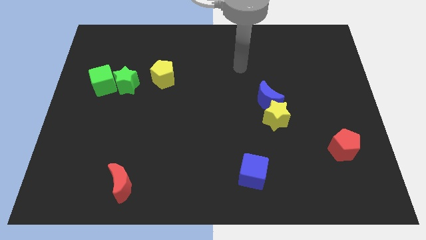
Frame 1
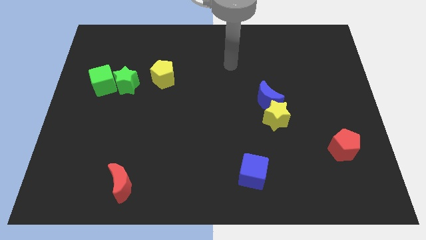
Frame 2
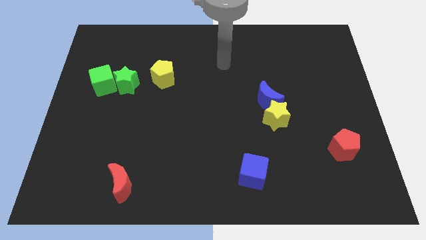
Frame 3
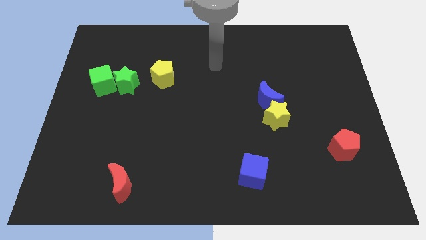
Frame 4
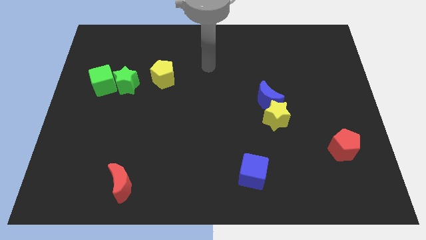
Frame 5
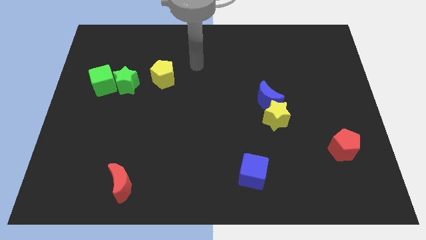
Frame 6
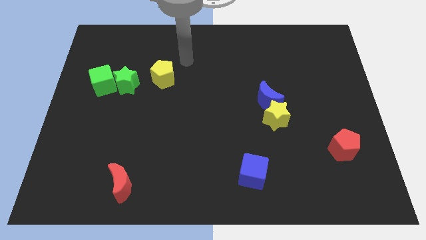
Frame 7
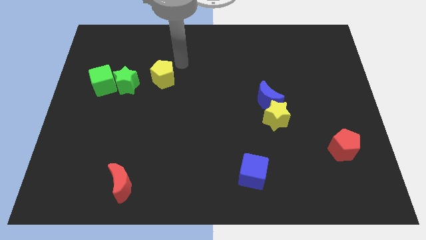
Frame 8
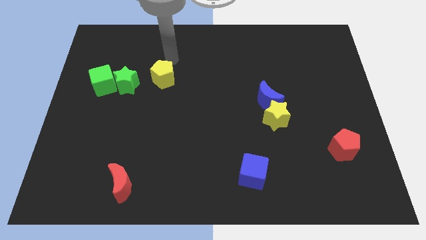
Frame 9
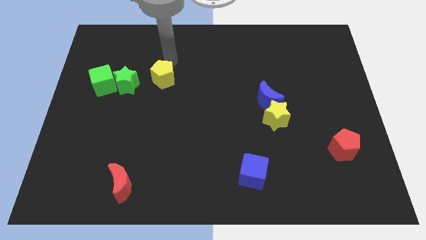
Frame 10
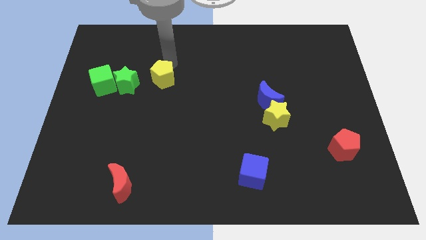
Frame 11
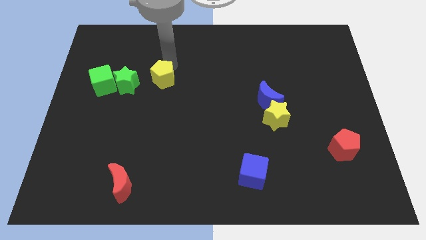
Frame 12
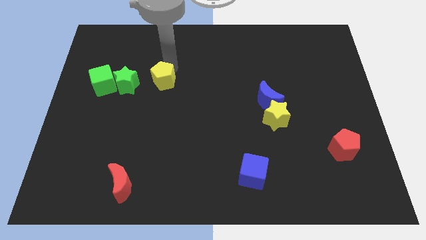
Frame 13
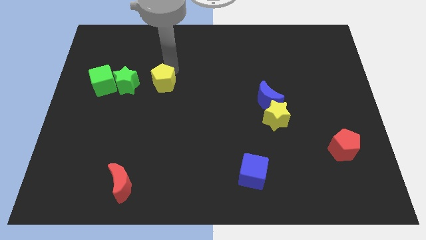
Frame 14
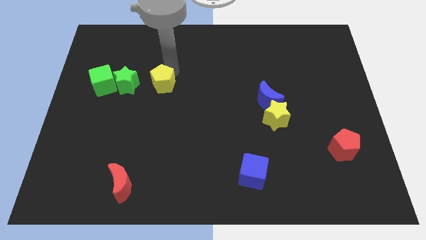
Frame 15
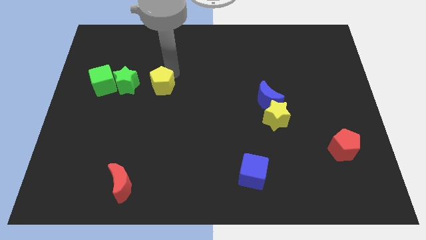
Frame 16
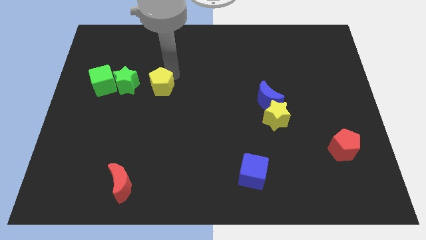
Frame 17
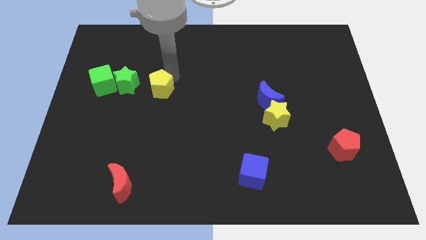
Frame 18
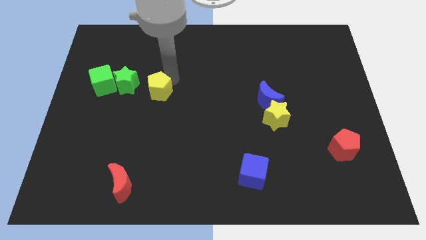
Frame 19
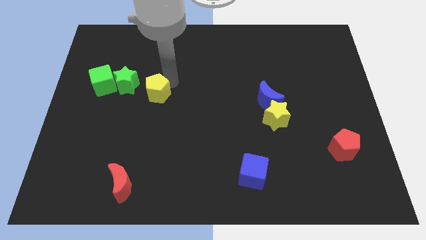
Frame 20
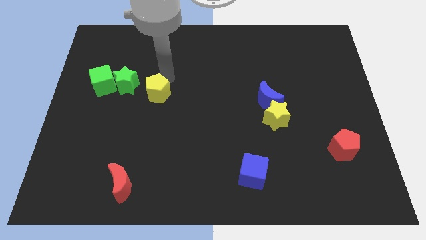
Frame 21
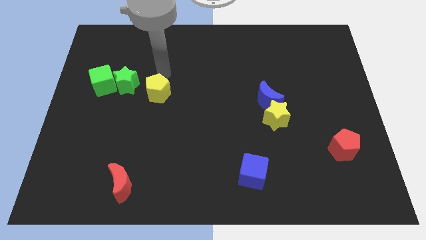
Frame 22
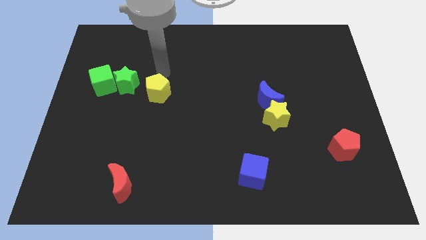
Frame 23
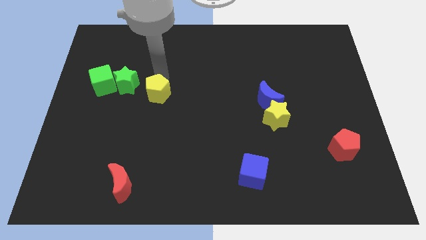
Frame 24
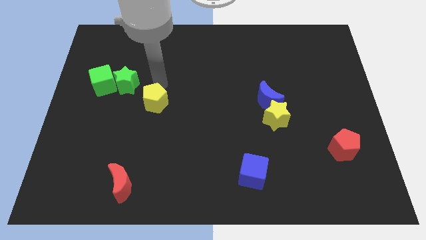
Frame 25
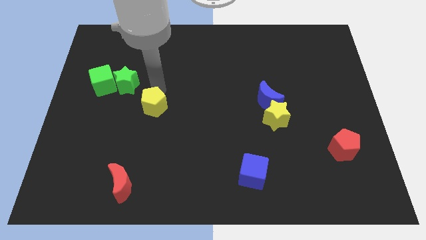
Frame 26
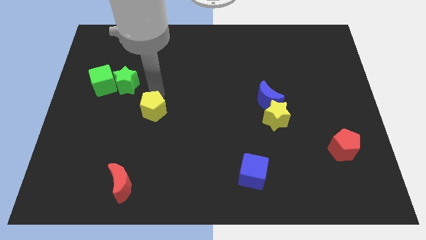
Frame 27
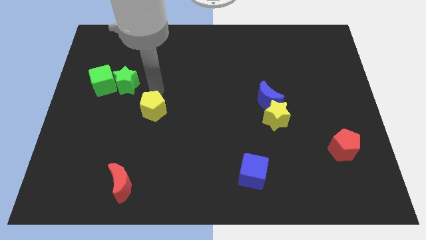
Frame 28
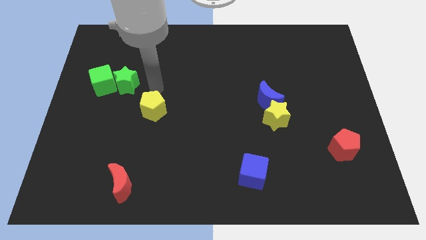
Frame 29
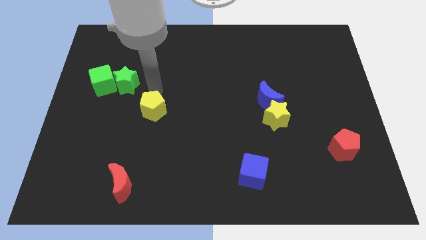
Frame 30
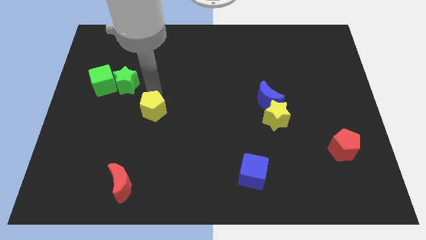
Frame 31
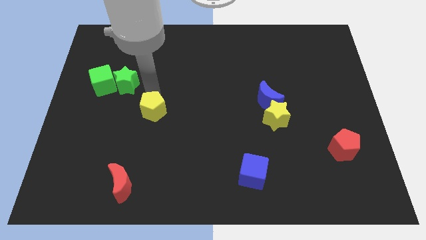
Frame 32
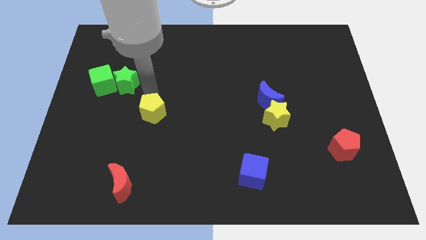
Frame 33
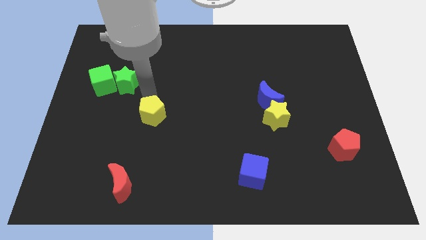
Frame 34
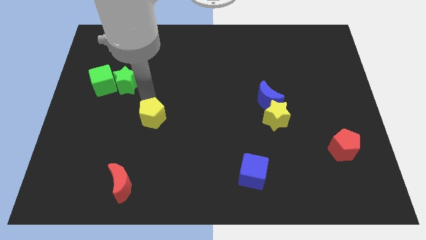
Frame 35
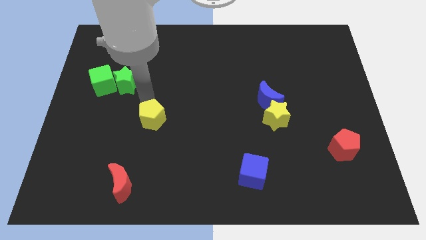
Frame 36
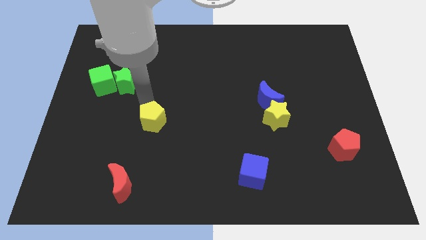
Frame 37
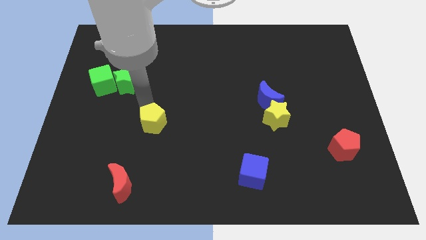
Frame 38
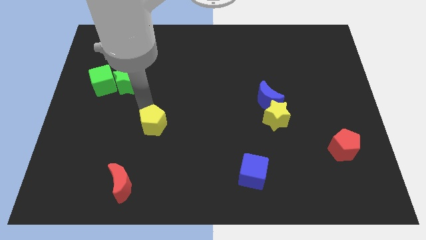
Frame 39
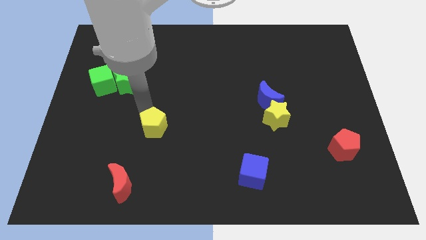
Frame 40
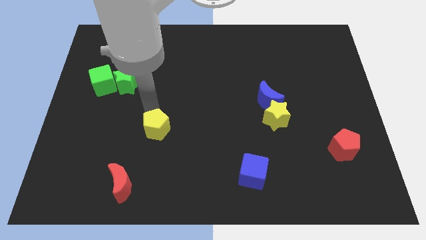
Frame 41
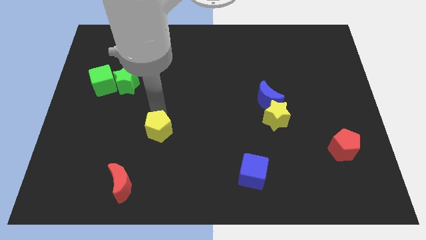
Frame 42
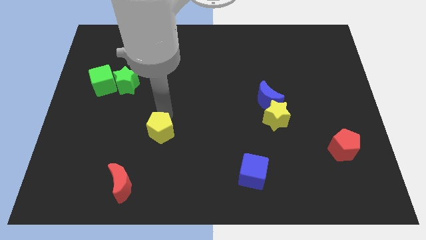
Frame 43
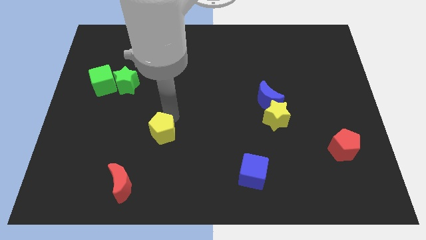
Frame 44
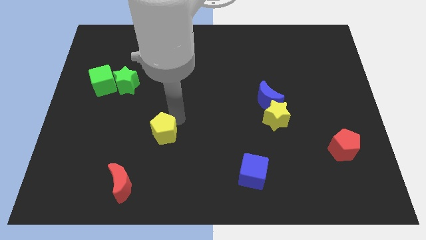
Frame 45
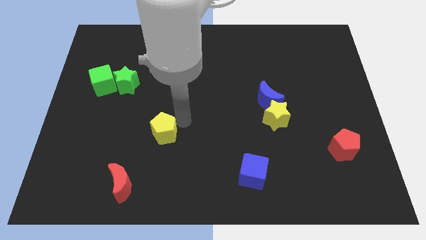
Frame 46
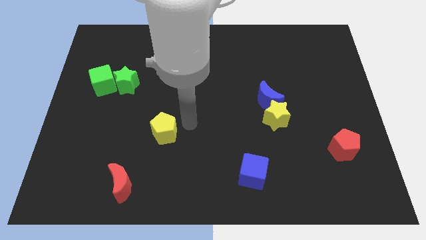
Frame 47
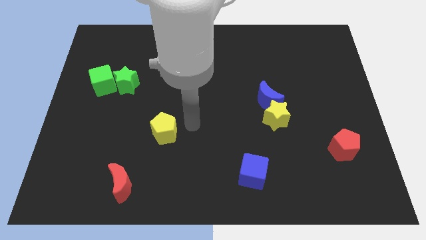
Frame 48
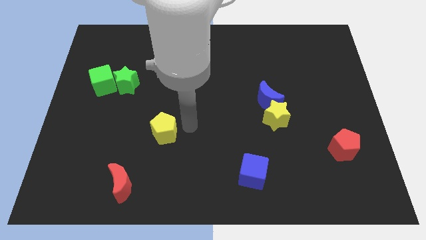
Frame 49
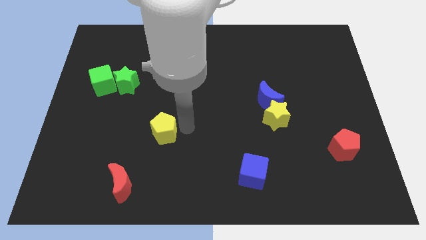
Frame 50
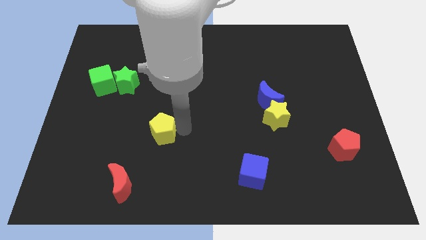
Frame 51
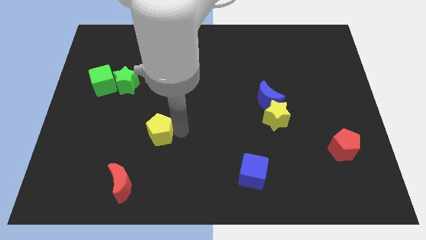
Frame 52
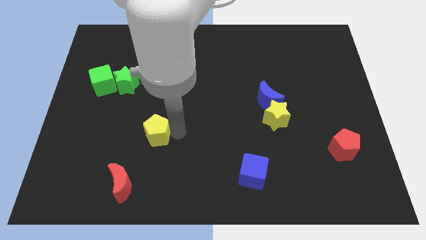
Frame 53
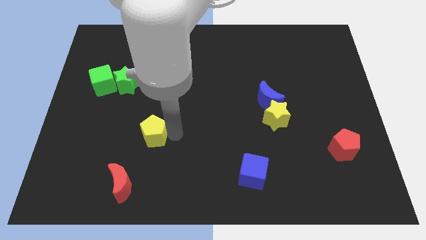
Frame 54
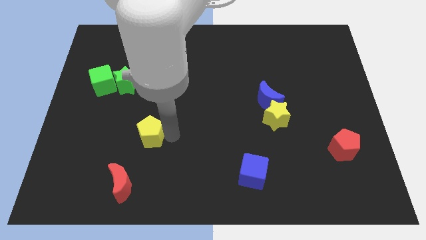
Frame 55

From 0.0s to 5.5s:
move the yellow pentagon to the top side of the red moon

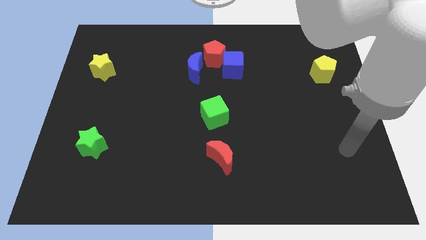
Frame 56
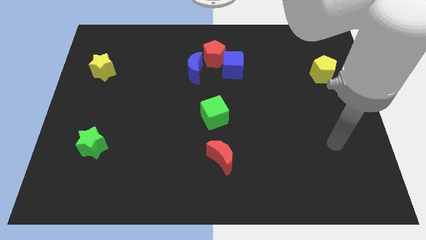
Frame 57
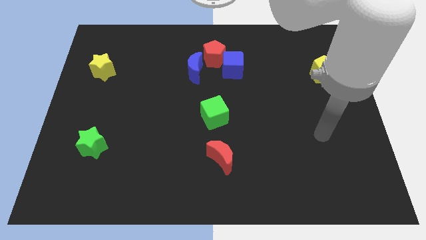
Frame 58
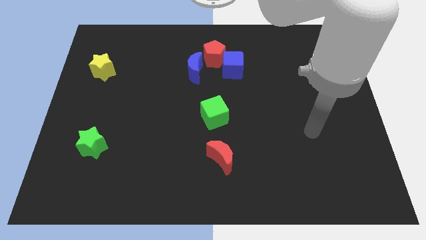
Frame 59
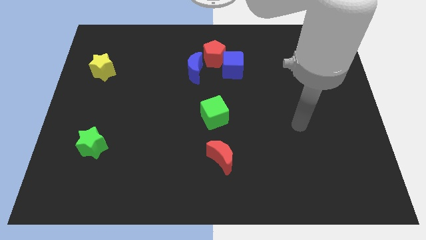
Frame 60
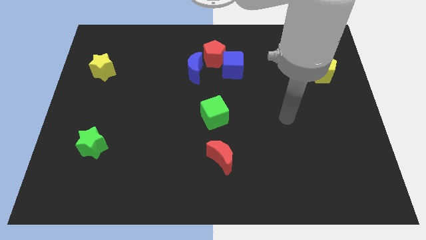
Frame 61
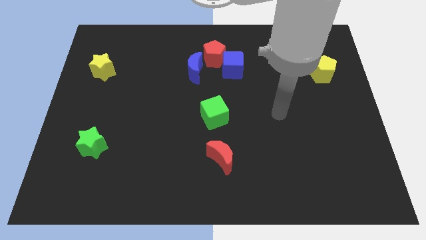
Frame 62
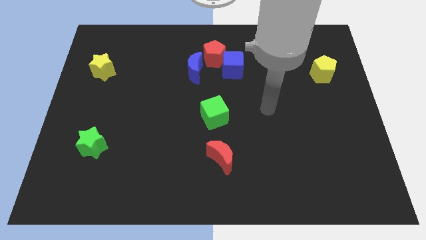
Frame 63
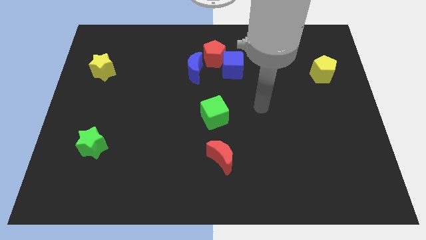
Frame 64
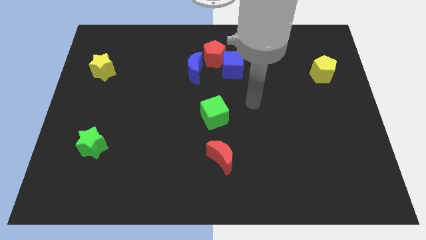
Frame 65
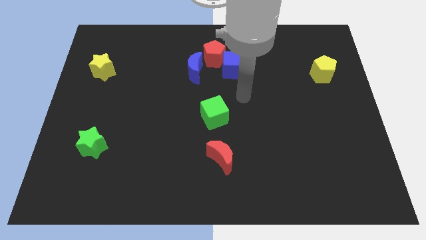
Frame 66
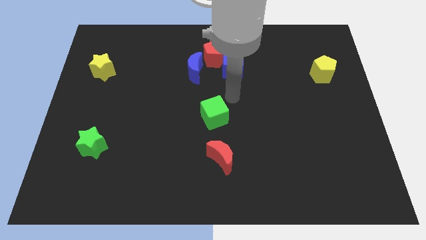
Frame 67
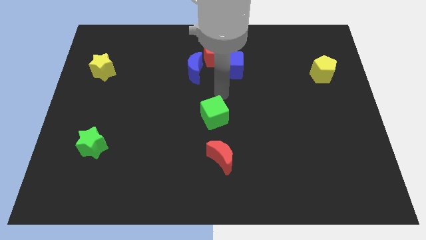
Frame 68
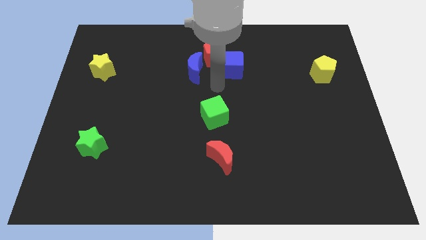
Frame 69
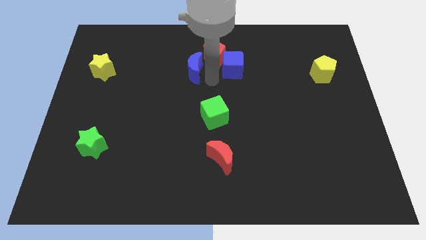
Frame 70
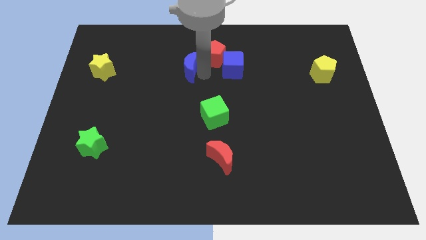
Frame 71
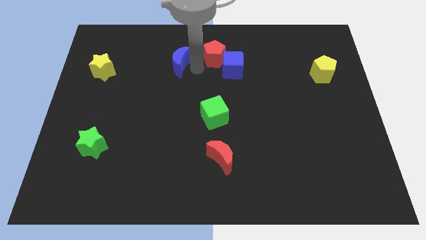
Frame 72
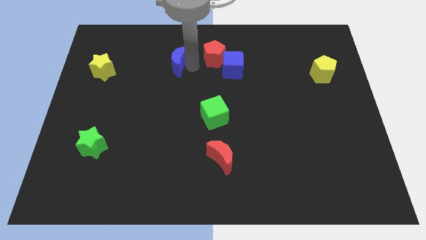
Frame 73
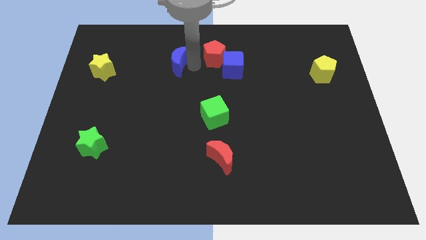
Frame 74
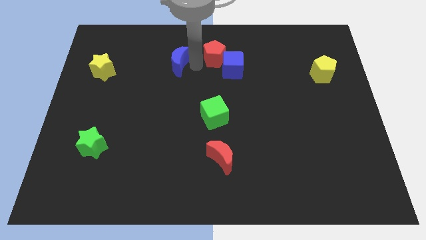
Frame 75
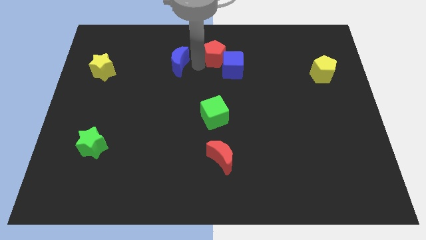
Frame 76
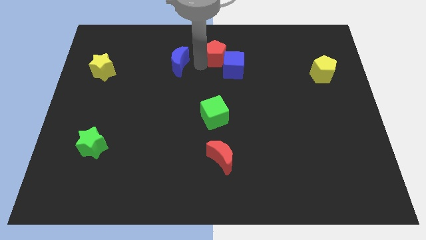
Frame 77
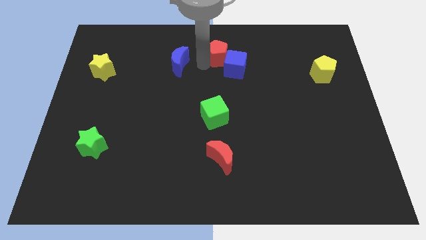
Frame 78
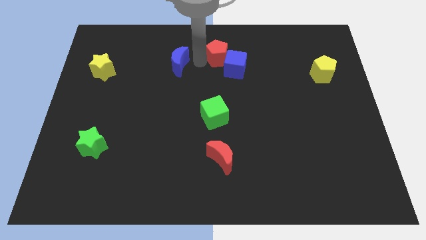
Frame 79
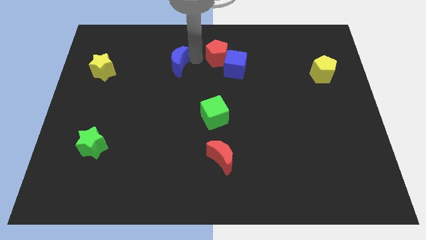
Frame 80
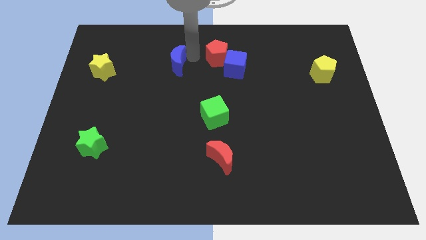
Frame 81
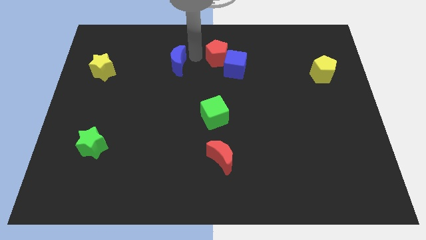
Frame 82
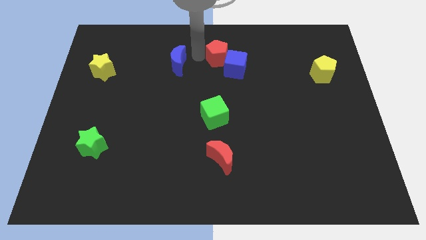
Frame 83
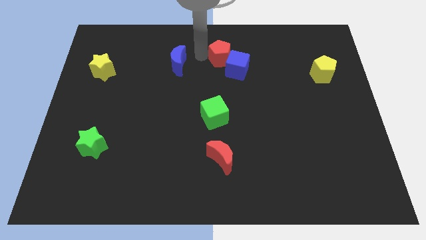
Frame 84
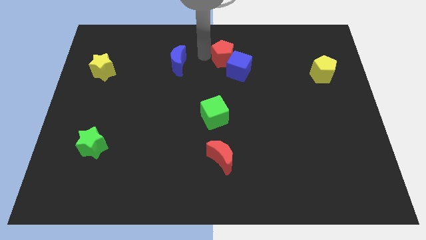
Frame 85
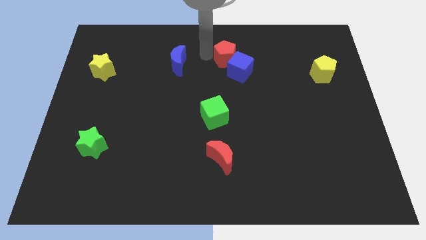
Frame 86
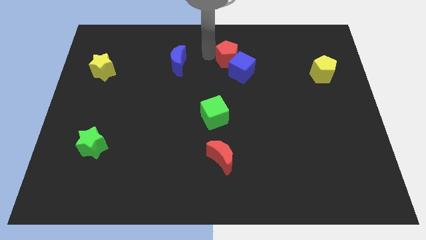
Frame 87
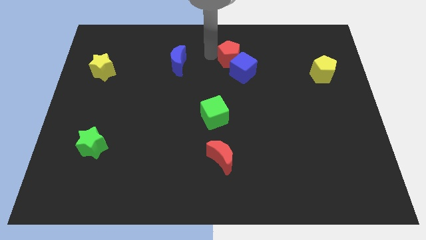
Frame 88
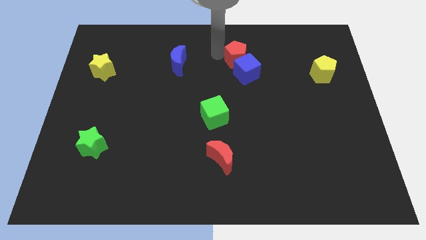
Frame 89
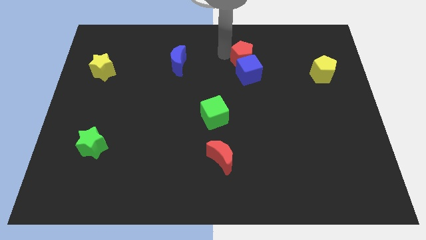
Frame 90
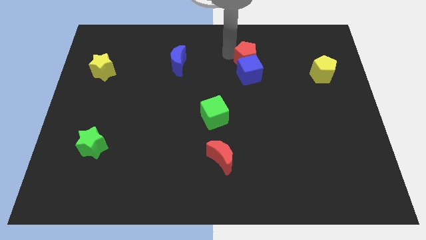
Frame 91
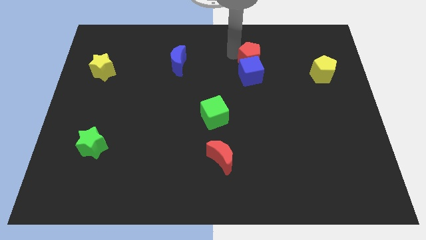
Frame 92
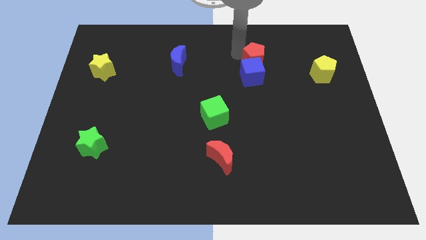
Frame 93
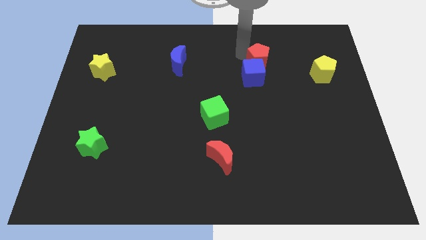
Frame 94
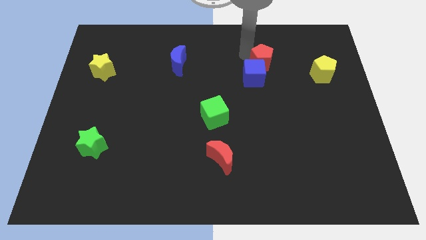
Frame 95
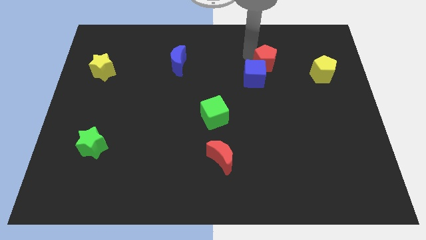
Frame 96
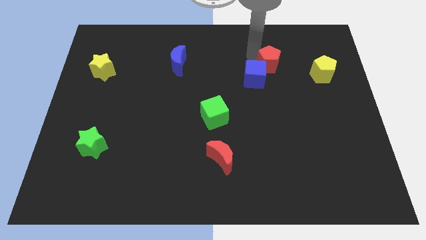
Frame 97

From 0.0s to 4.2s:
put the red pentagon to the right side of the blue cube
